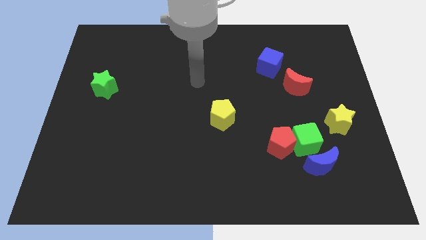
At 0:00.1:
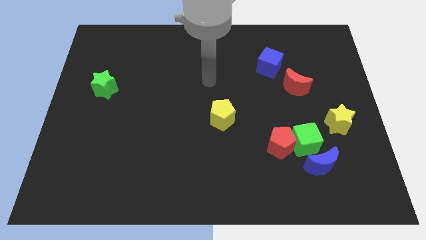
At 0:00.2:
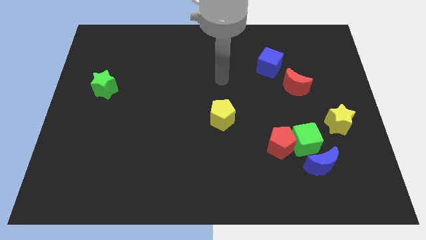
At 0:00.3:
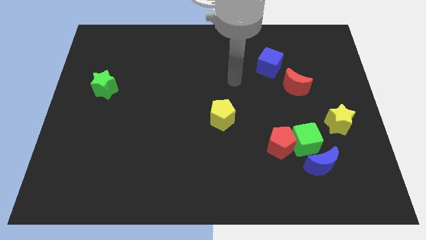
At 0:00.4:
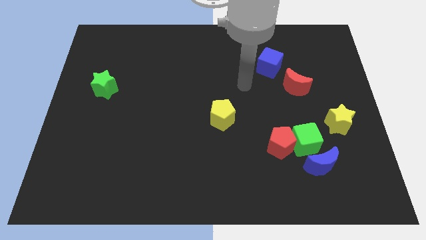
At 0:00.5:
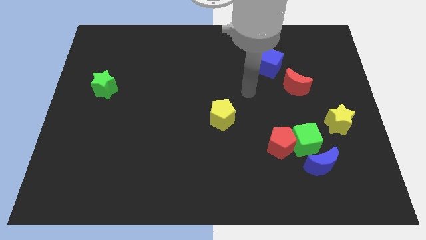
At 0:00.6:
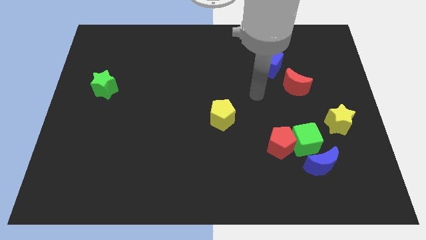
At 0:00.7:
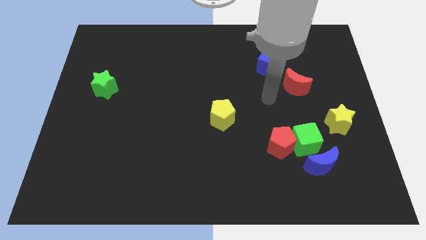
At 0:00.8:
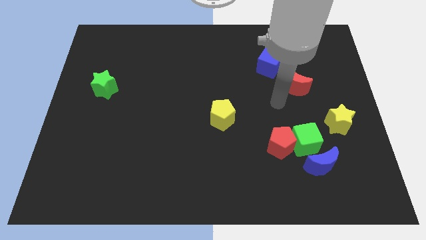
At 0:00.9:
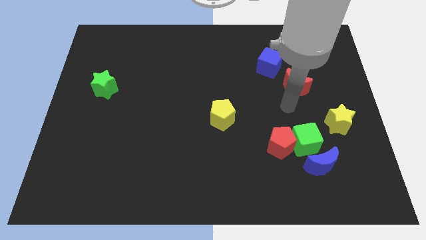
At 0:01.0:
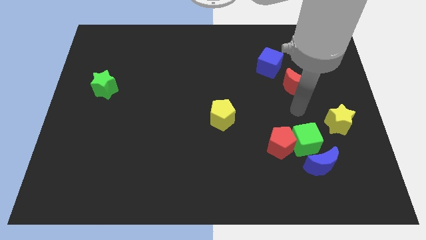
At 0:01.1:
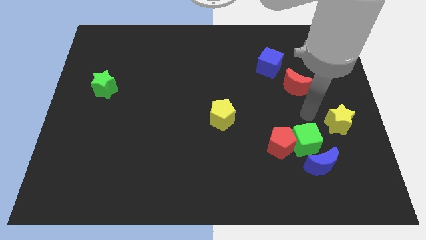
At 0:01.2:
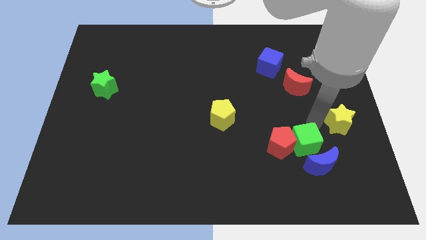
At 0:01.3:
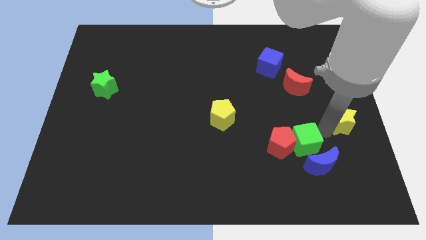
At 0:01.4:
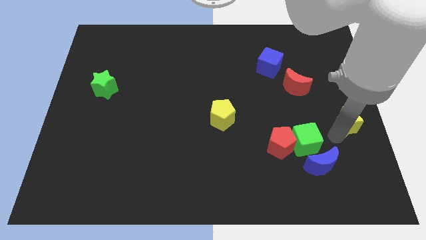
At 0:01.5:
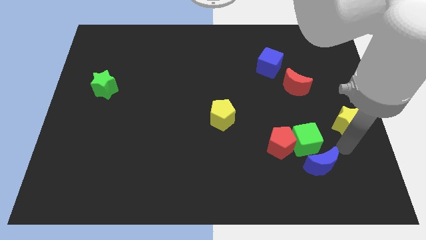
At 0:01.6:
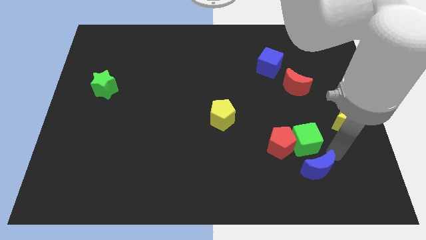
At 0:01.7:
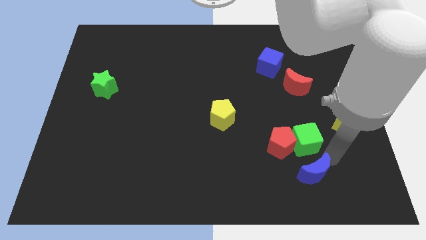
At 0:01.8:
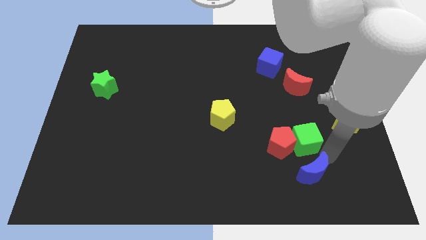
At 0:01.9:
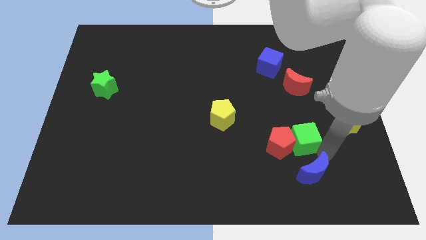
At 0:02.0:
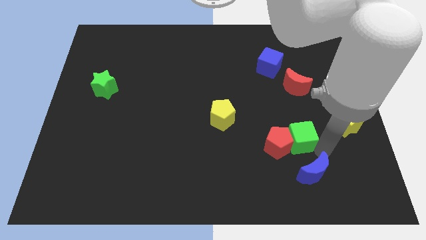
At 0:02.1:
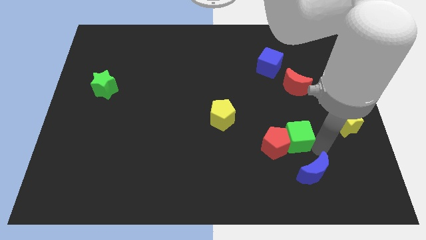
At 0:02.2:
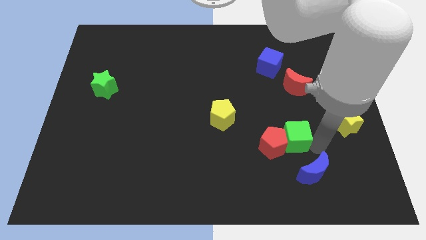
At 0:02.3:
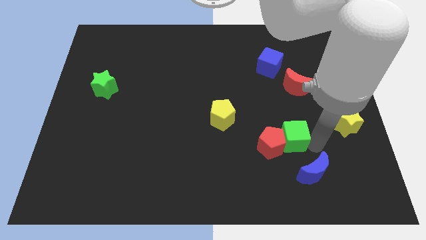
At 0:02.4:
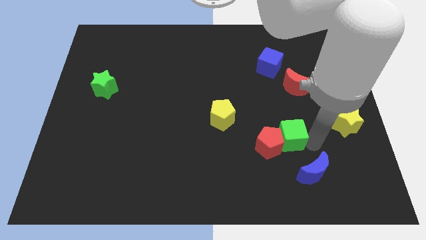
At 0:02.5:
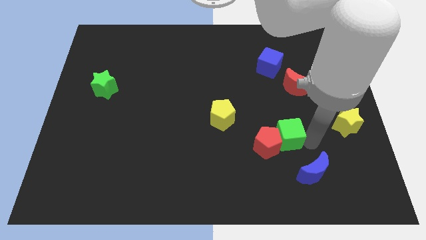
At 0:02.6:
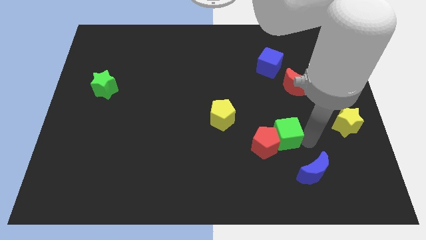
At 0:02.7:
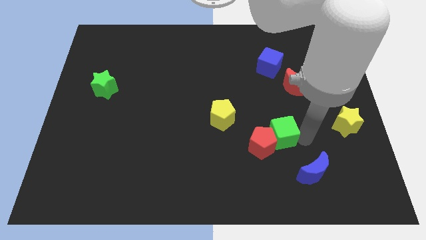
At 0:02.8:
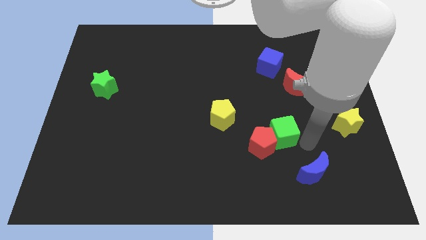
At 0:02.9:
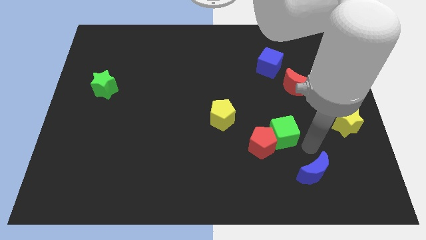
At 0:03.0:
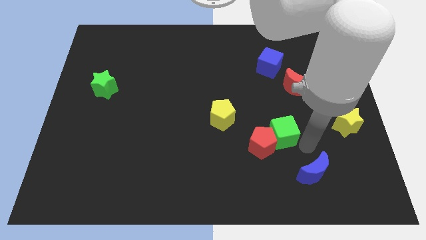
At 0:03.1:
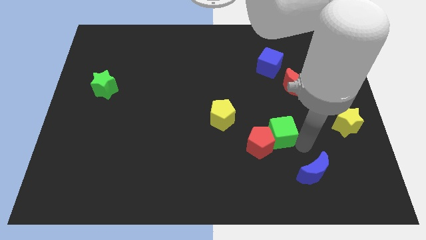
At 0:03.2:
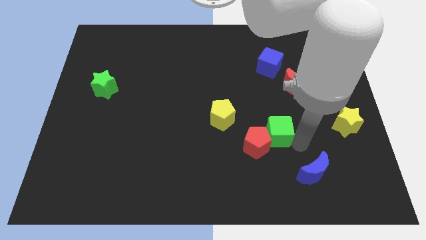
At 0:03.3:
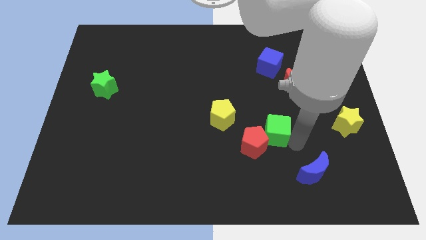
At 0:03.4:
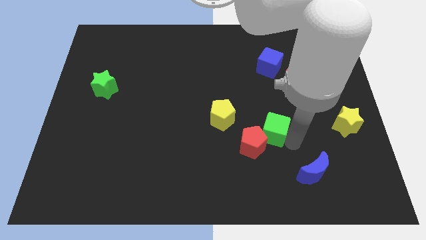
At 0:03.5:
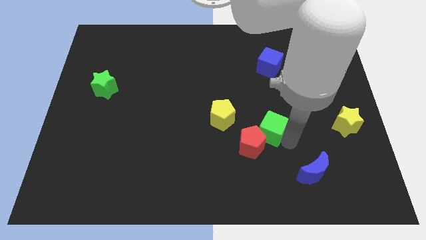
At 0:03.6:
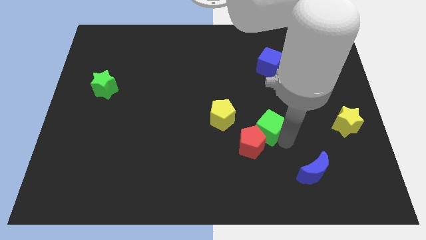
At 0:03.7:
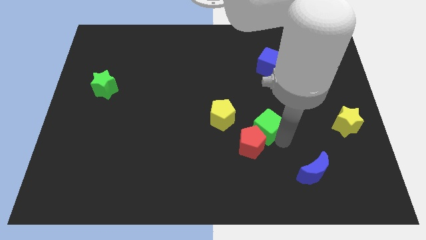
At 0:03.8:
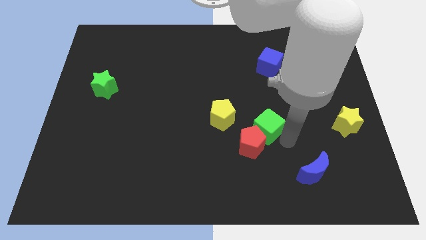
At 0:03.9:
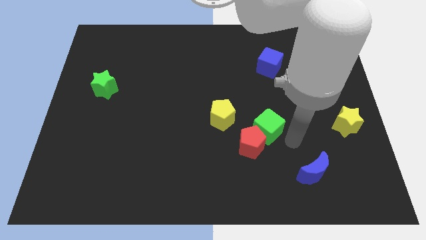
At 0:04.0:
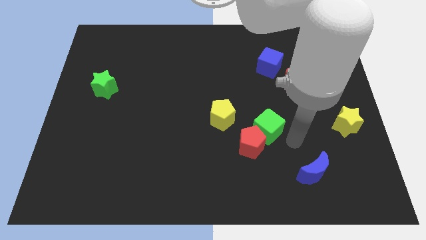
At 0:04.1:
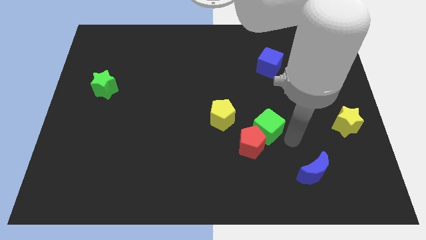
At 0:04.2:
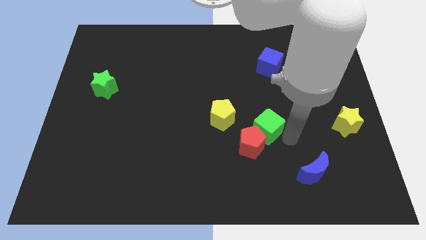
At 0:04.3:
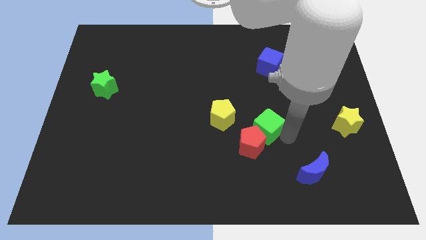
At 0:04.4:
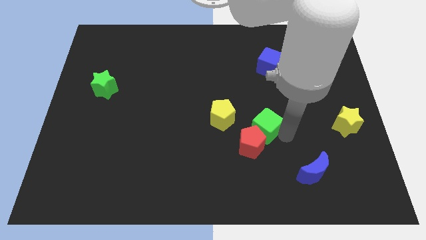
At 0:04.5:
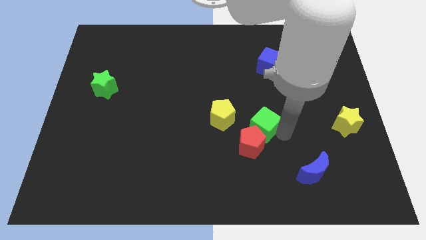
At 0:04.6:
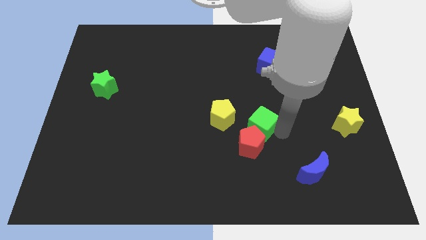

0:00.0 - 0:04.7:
pull the green cube apart from the red pentagon, blue moon, and yellow star

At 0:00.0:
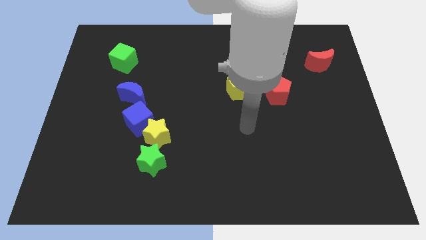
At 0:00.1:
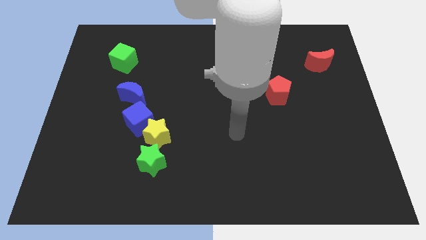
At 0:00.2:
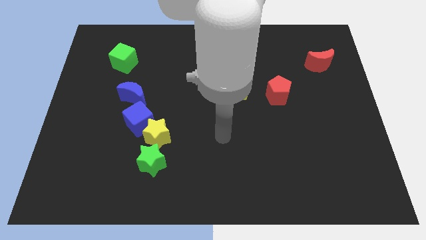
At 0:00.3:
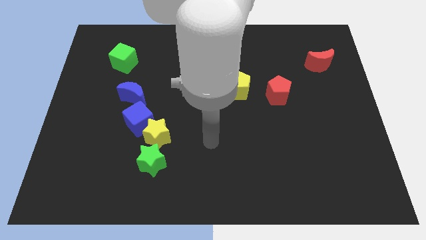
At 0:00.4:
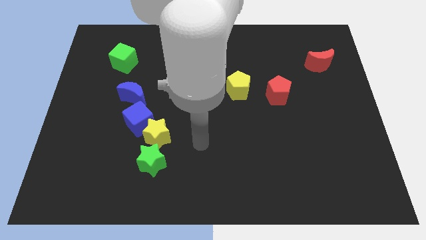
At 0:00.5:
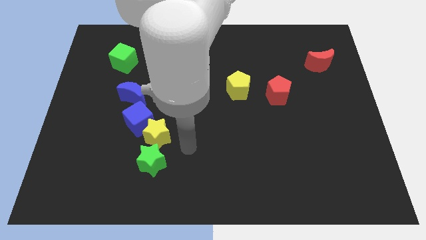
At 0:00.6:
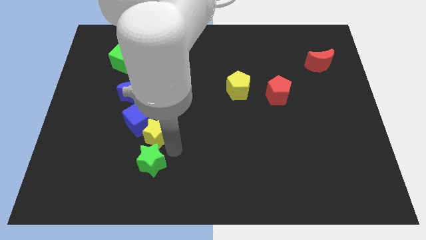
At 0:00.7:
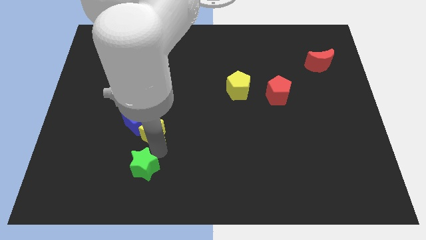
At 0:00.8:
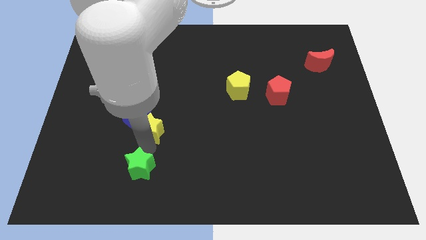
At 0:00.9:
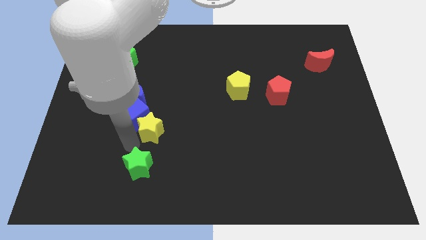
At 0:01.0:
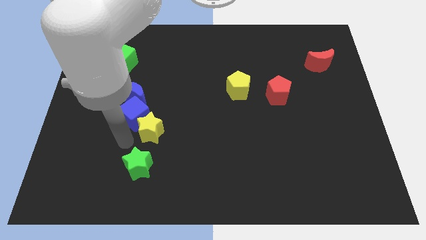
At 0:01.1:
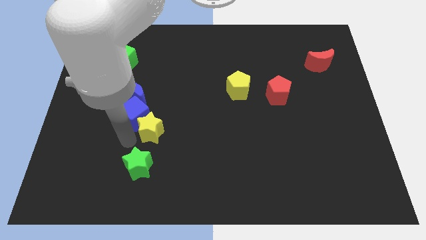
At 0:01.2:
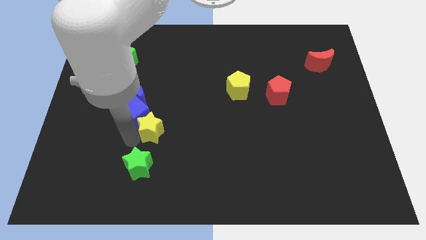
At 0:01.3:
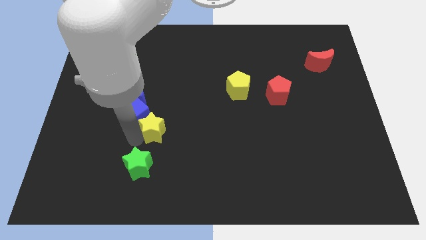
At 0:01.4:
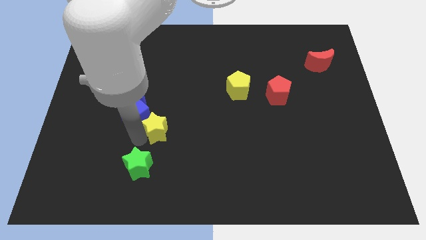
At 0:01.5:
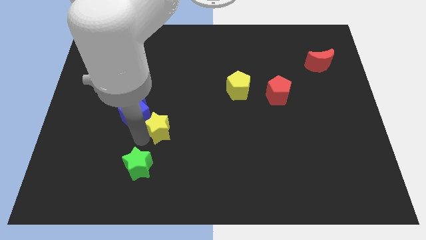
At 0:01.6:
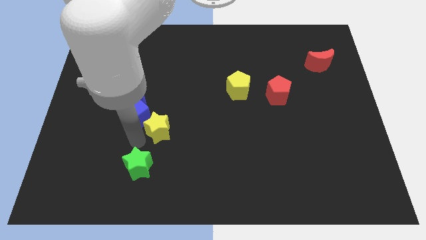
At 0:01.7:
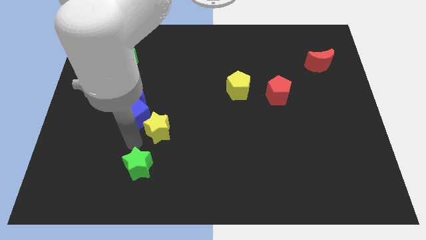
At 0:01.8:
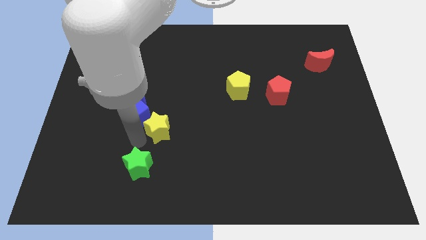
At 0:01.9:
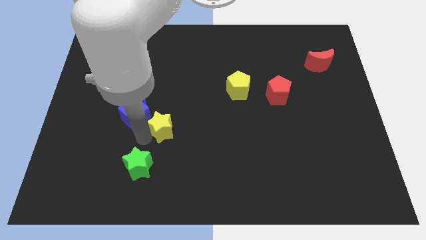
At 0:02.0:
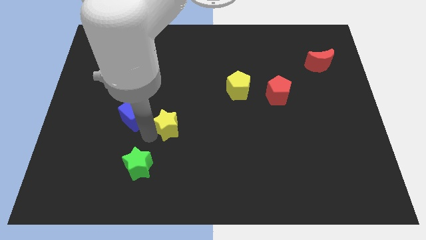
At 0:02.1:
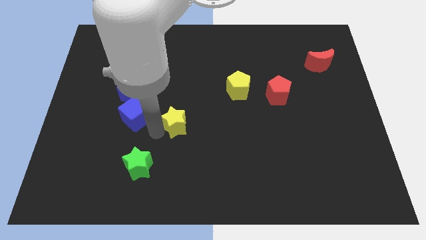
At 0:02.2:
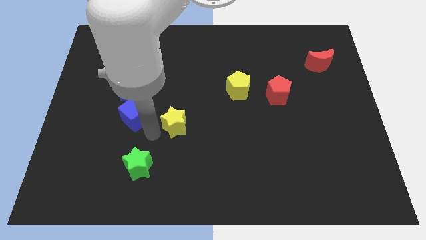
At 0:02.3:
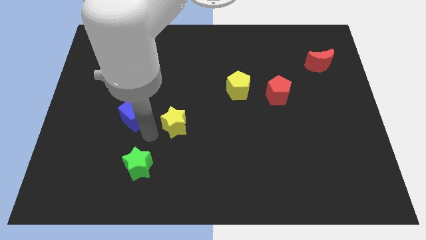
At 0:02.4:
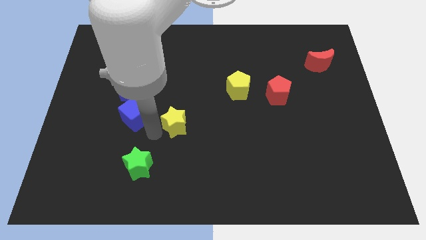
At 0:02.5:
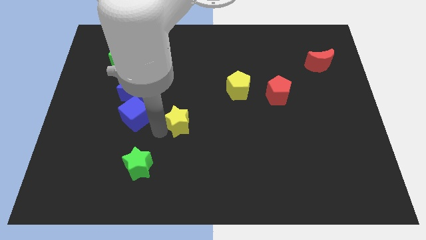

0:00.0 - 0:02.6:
separate the yellow star from the blue cube and green star

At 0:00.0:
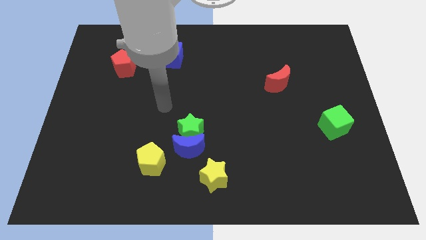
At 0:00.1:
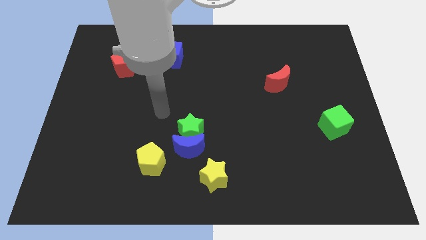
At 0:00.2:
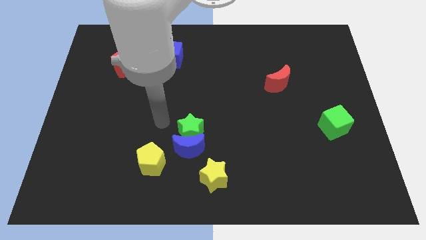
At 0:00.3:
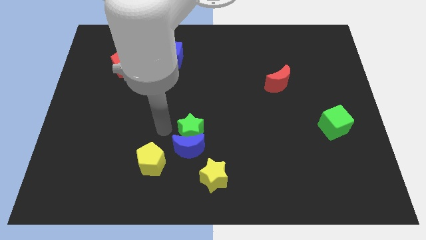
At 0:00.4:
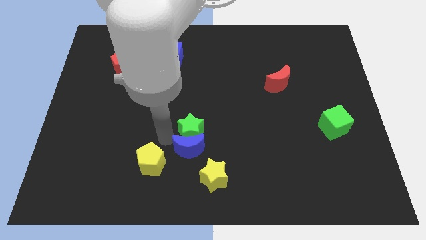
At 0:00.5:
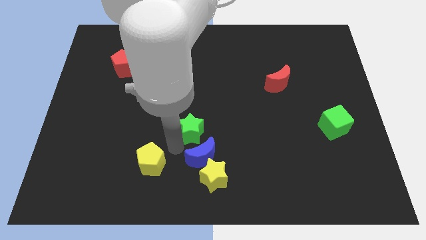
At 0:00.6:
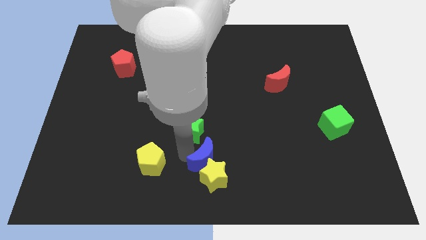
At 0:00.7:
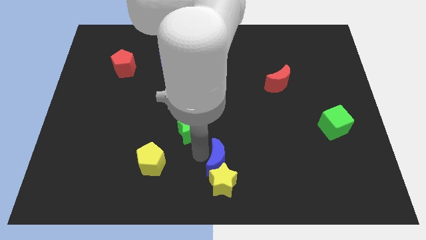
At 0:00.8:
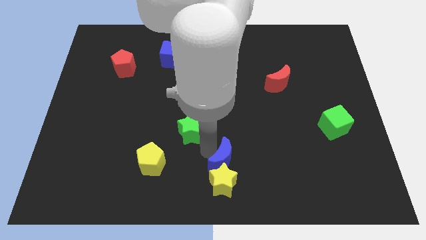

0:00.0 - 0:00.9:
pull the green star apart from the blue moon

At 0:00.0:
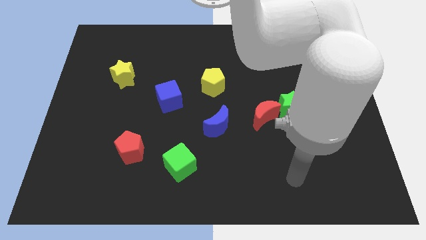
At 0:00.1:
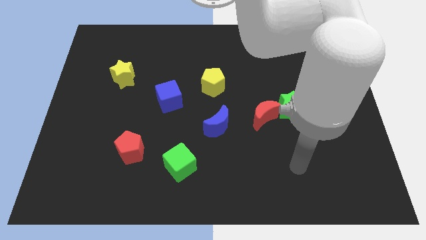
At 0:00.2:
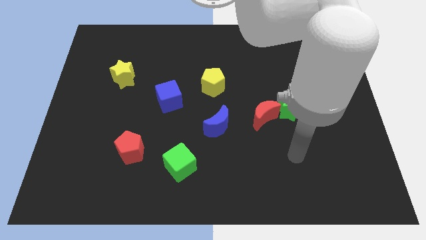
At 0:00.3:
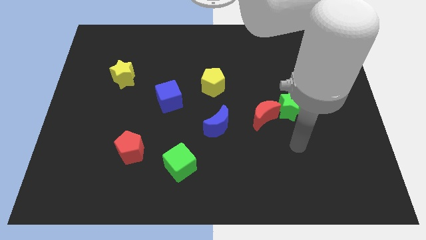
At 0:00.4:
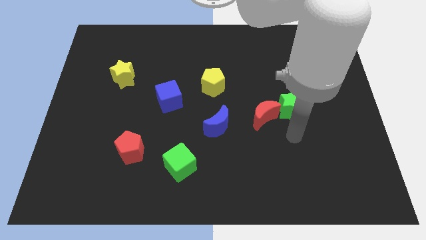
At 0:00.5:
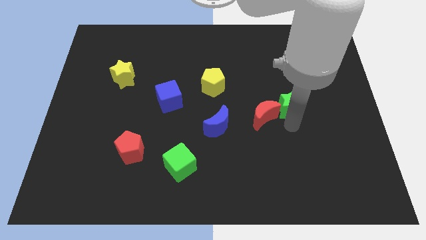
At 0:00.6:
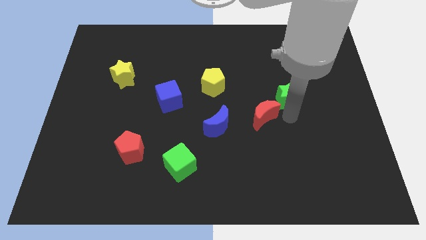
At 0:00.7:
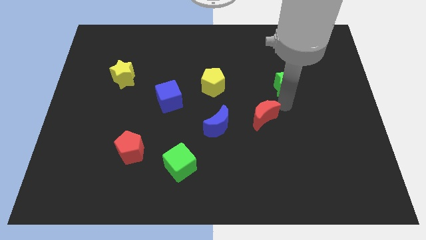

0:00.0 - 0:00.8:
pull the red moon apart from the green star

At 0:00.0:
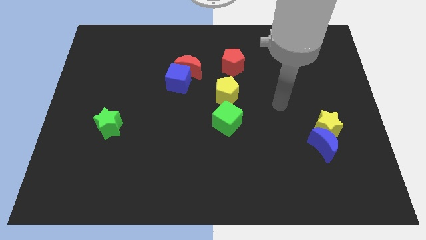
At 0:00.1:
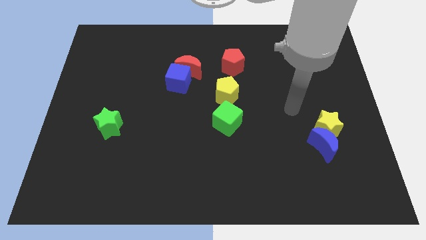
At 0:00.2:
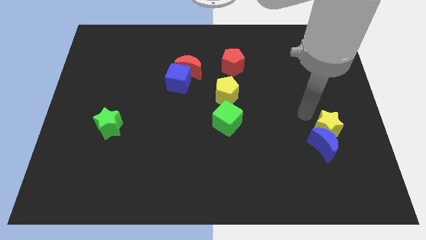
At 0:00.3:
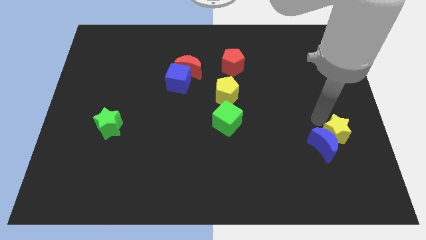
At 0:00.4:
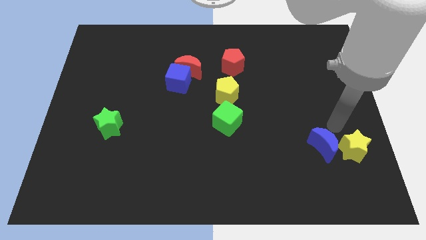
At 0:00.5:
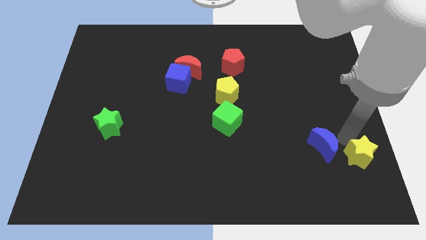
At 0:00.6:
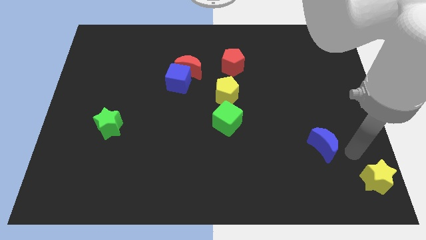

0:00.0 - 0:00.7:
move the blue moon away from the yellow star
